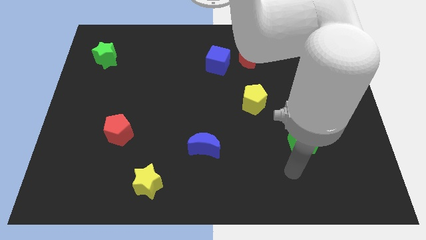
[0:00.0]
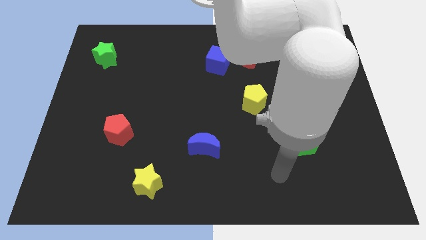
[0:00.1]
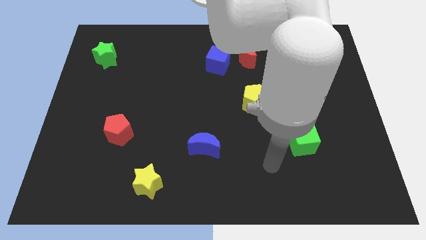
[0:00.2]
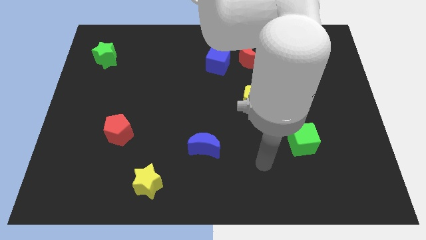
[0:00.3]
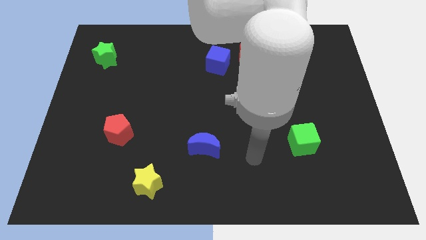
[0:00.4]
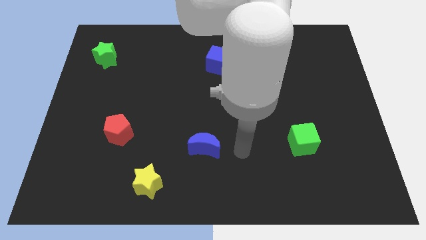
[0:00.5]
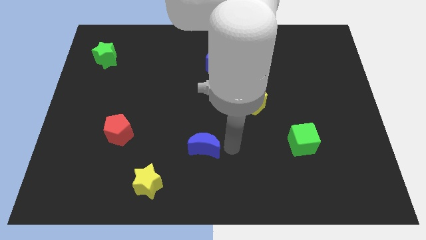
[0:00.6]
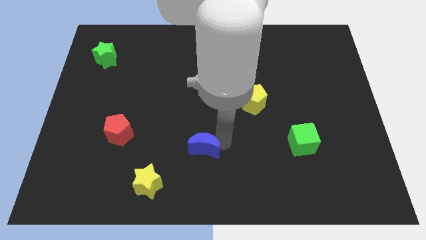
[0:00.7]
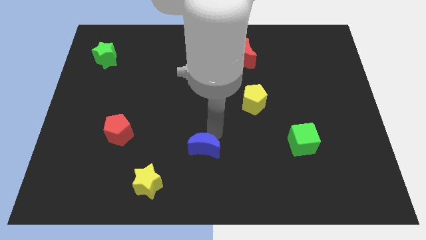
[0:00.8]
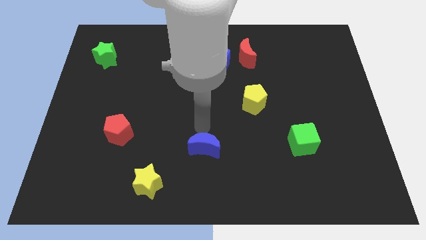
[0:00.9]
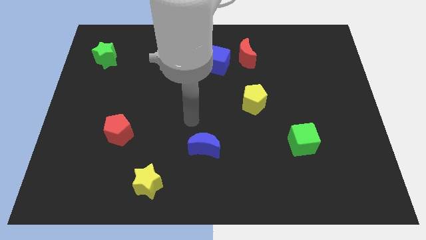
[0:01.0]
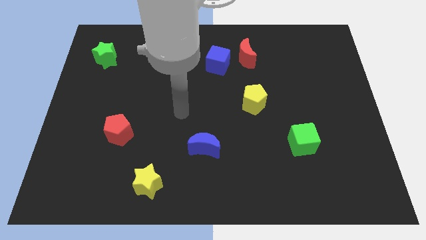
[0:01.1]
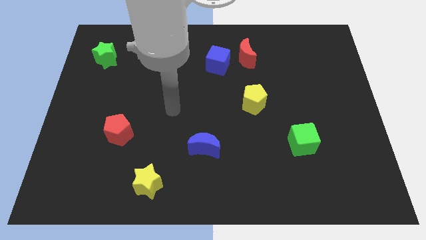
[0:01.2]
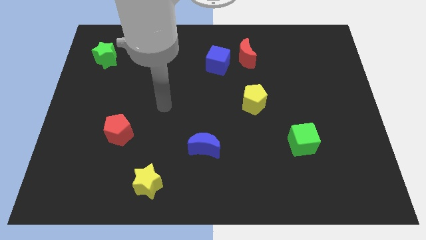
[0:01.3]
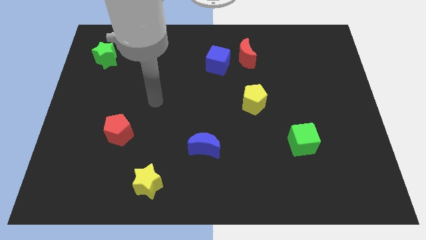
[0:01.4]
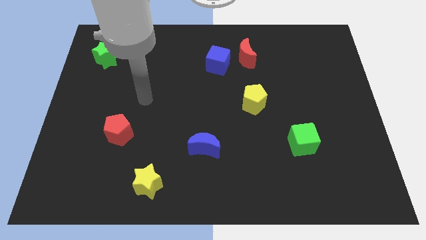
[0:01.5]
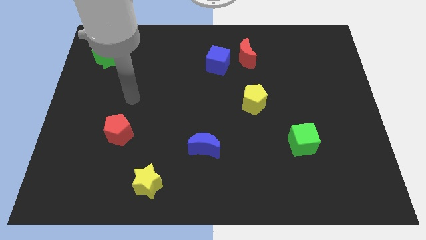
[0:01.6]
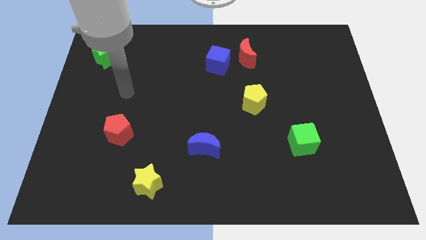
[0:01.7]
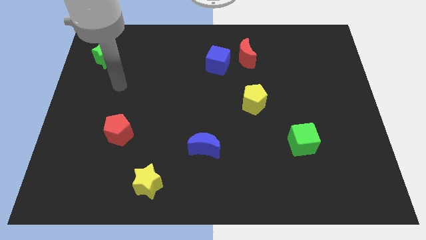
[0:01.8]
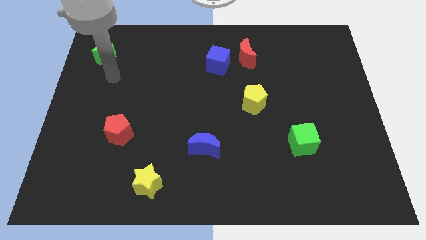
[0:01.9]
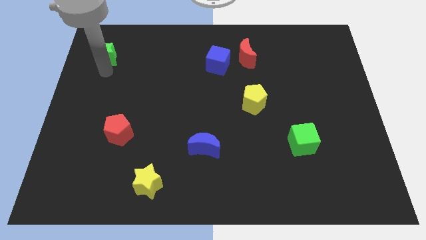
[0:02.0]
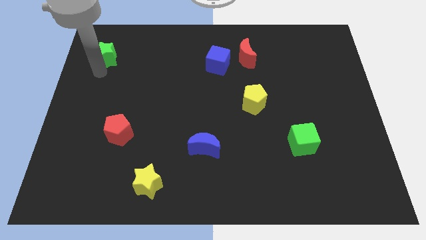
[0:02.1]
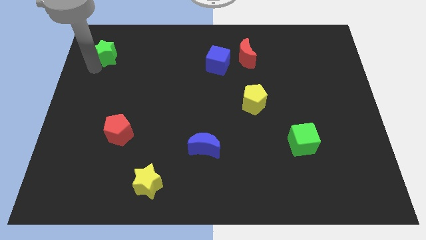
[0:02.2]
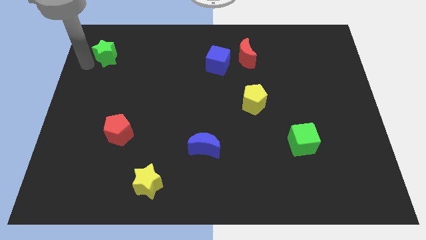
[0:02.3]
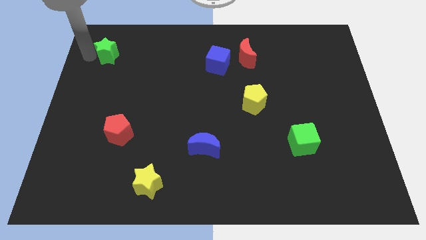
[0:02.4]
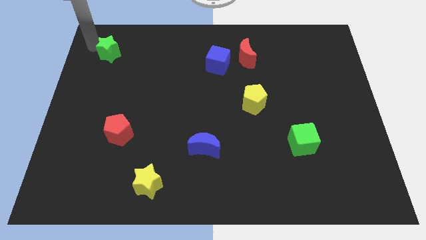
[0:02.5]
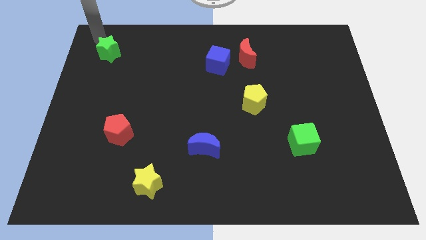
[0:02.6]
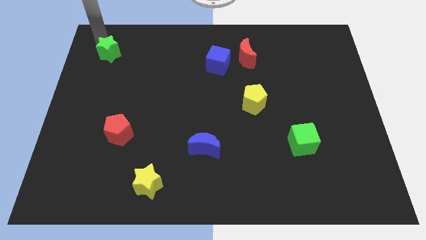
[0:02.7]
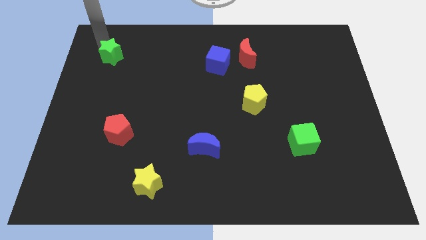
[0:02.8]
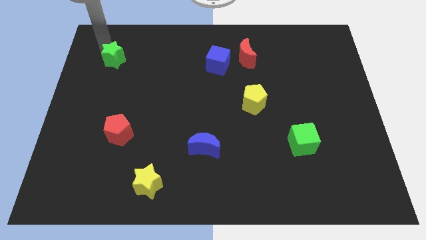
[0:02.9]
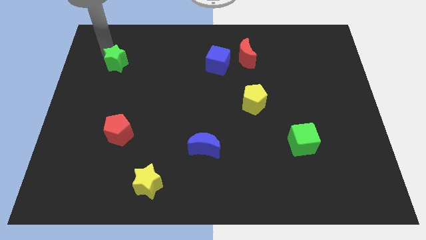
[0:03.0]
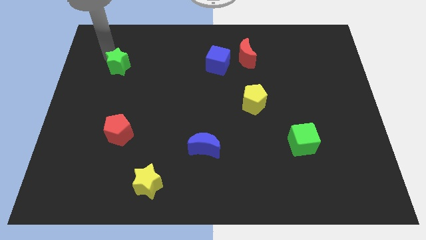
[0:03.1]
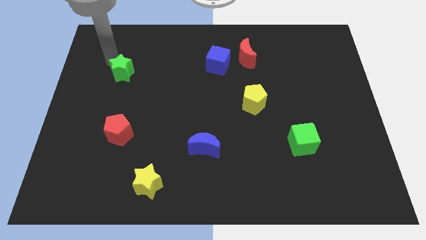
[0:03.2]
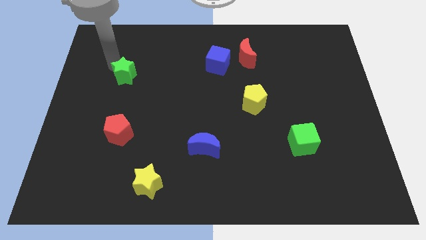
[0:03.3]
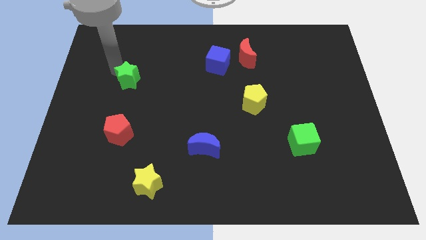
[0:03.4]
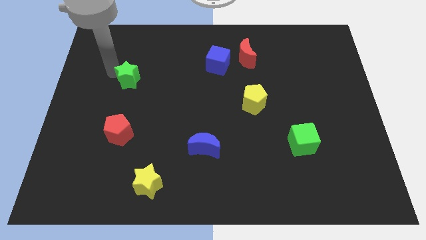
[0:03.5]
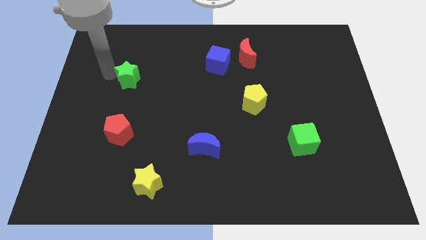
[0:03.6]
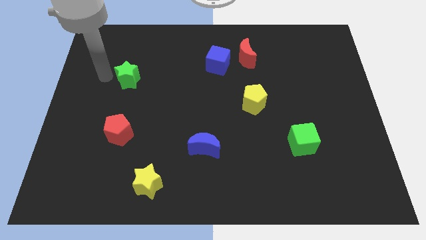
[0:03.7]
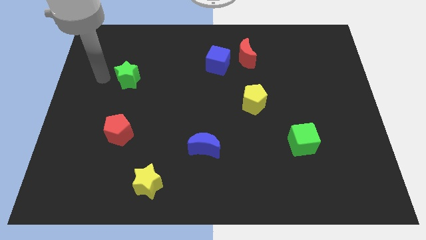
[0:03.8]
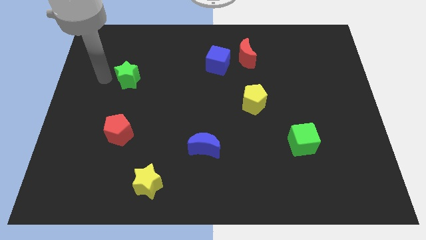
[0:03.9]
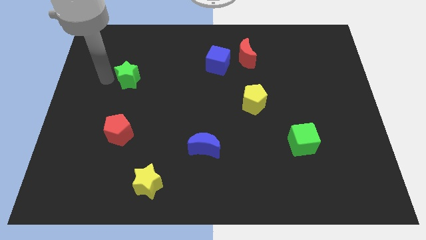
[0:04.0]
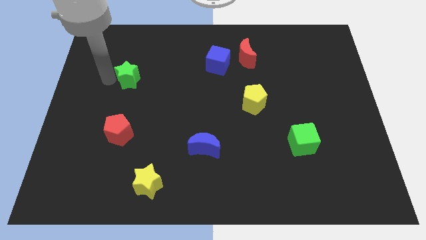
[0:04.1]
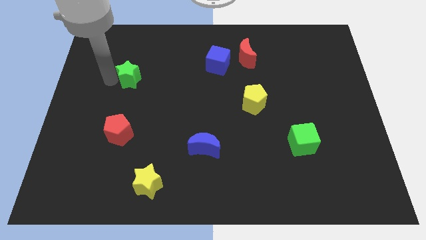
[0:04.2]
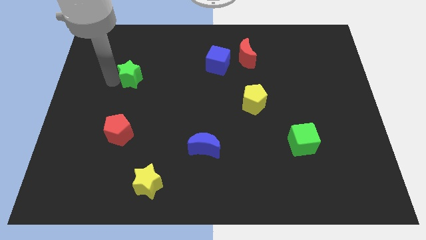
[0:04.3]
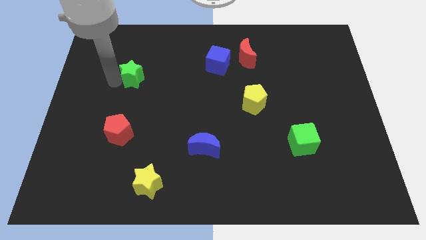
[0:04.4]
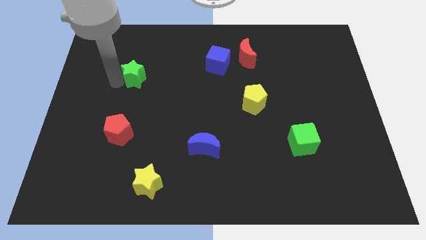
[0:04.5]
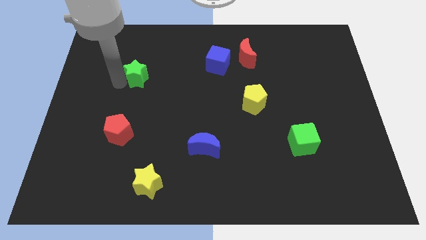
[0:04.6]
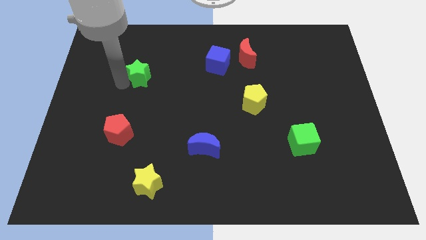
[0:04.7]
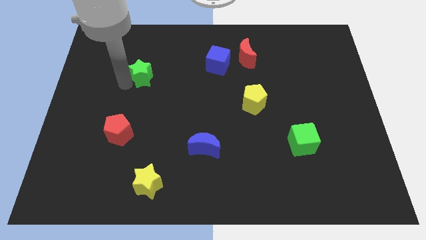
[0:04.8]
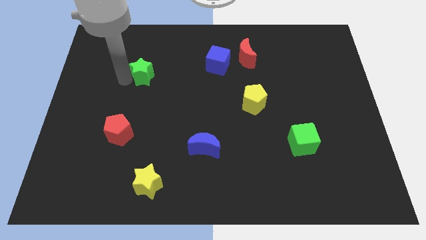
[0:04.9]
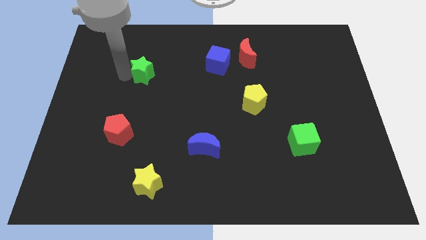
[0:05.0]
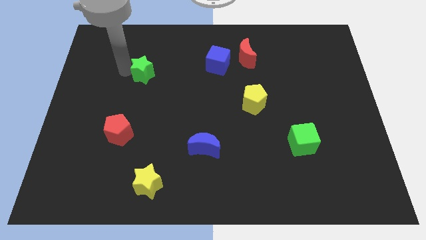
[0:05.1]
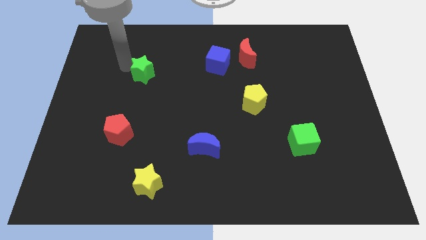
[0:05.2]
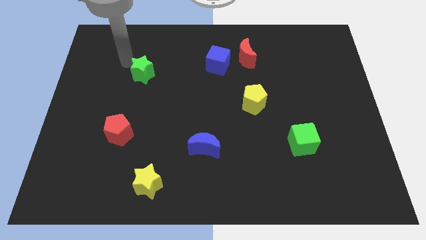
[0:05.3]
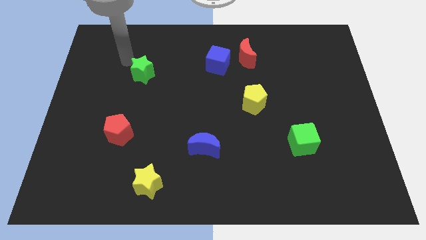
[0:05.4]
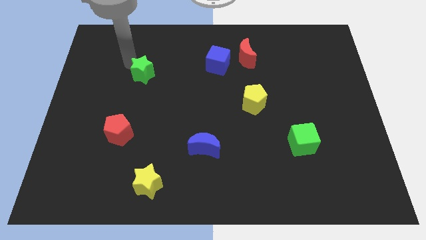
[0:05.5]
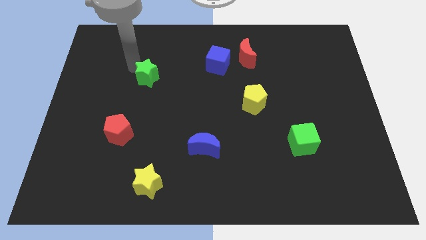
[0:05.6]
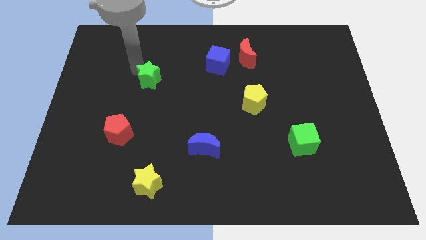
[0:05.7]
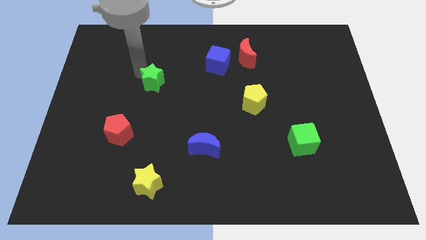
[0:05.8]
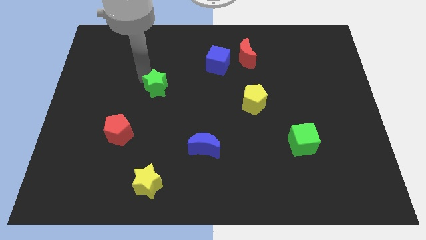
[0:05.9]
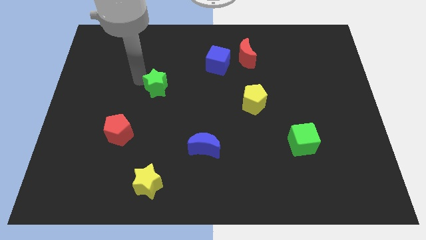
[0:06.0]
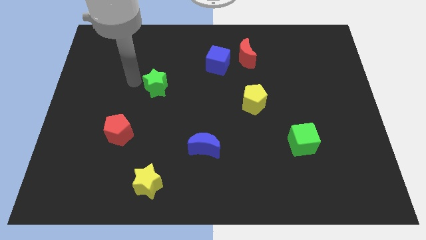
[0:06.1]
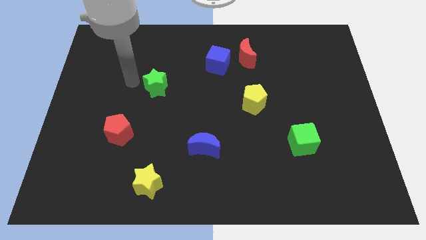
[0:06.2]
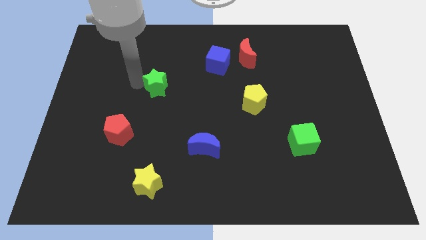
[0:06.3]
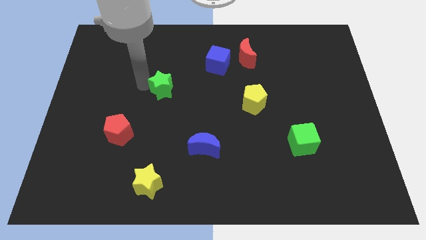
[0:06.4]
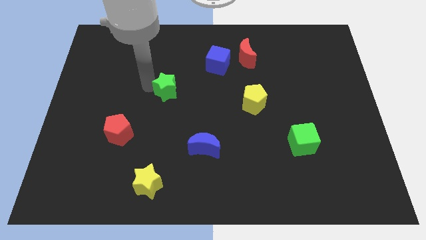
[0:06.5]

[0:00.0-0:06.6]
put the green star to the center

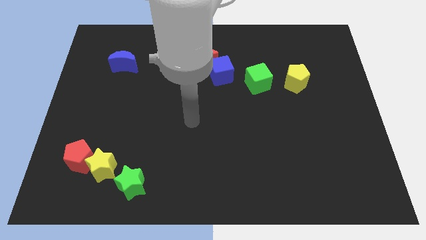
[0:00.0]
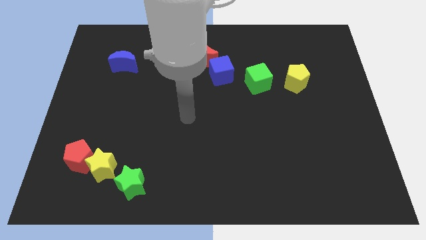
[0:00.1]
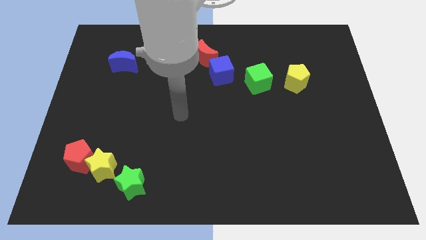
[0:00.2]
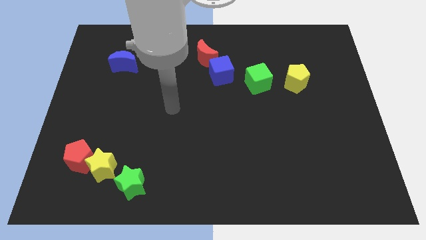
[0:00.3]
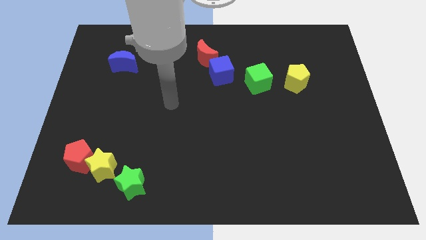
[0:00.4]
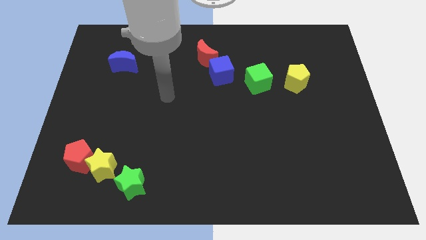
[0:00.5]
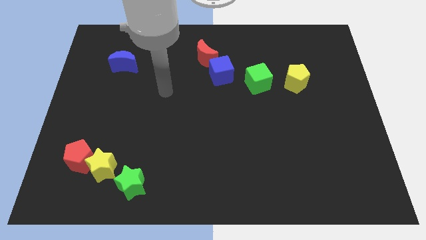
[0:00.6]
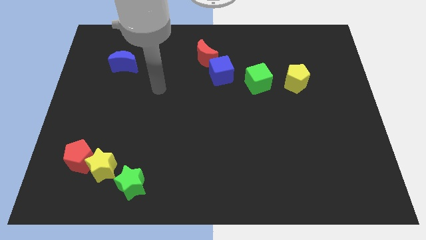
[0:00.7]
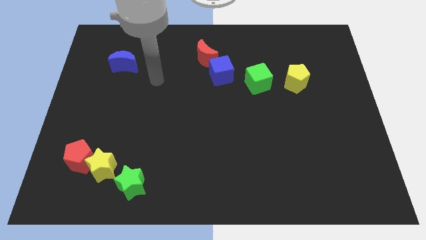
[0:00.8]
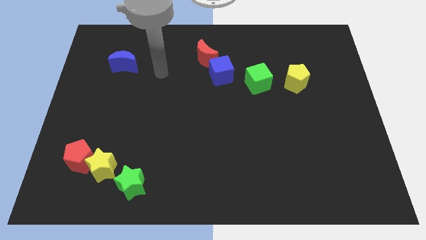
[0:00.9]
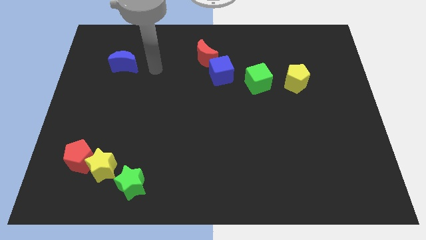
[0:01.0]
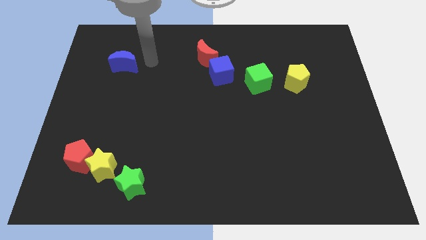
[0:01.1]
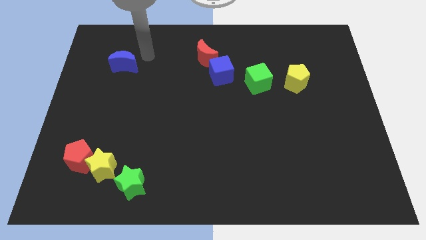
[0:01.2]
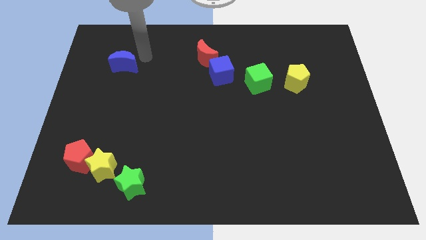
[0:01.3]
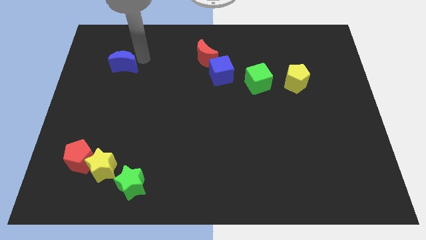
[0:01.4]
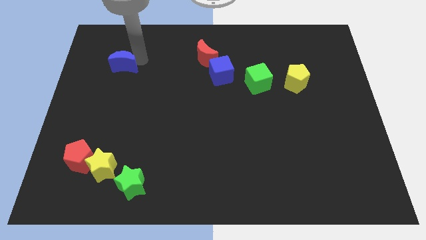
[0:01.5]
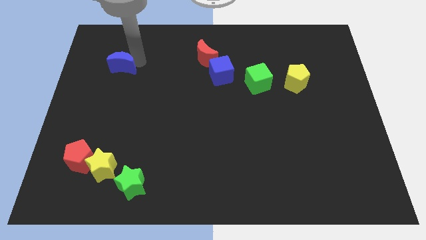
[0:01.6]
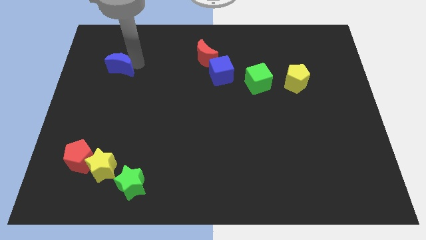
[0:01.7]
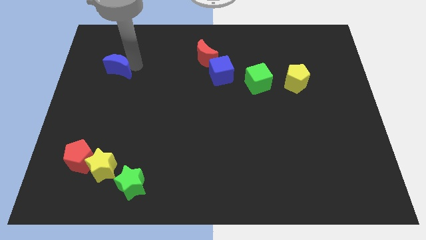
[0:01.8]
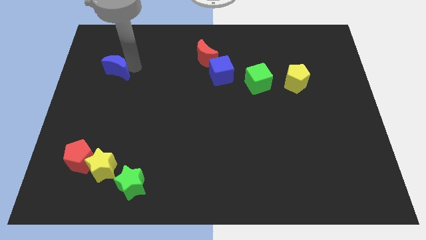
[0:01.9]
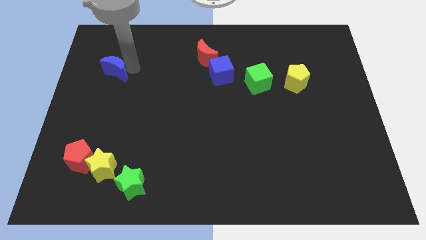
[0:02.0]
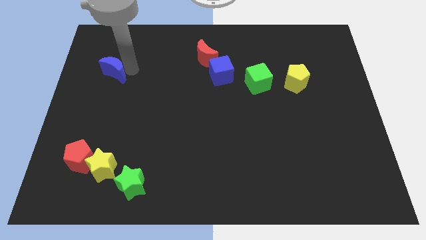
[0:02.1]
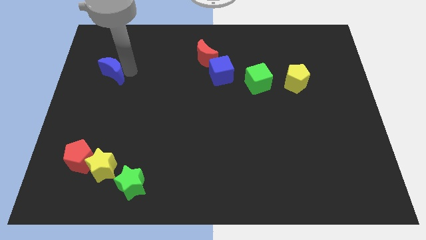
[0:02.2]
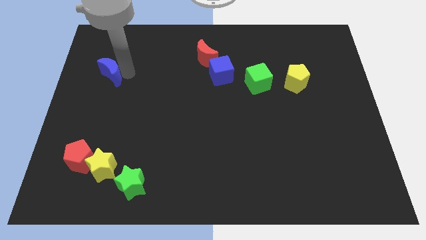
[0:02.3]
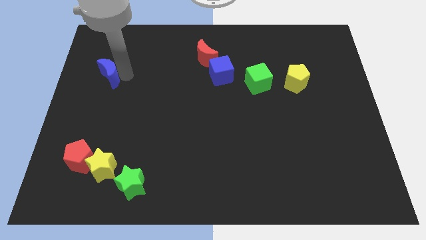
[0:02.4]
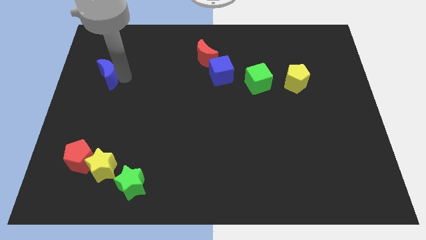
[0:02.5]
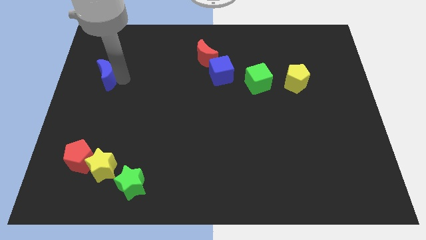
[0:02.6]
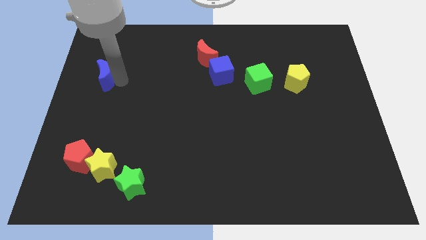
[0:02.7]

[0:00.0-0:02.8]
move the blue moon to the left side of the board
